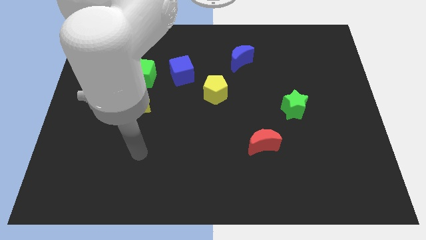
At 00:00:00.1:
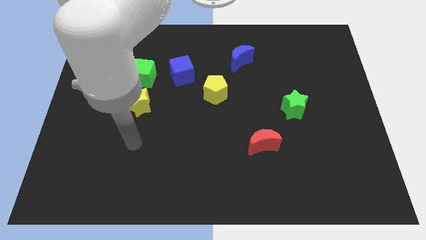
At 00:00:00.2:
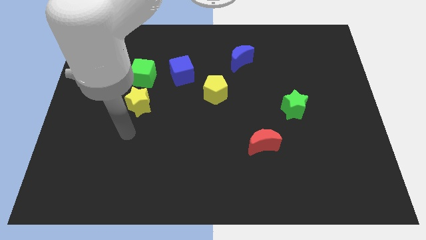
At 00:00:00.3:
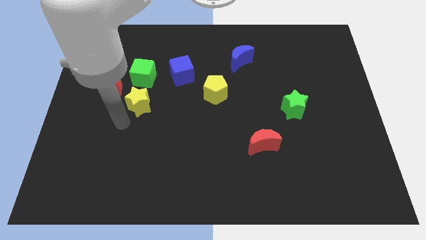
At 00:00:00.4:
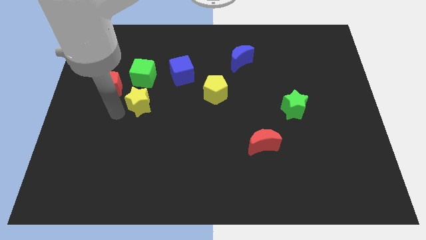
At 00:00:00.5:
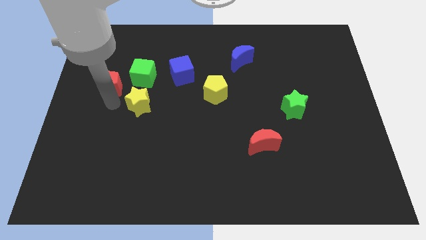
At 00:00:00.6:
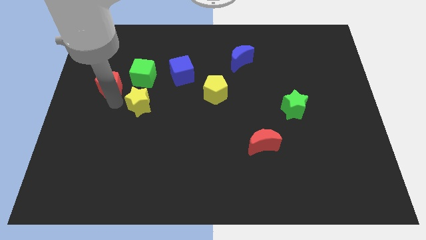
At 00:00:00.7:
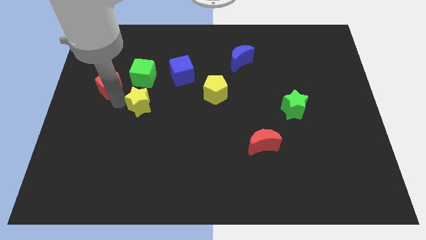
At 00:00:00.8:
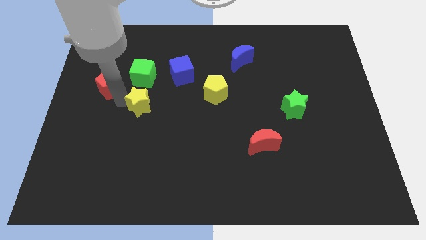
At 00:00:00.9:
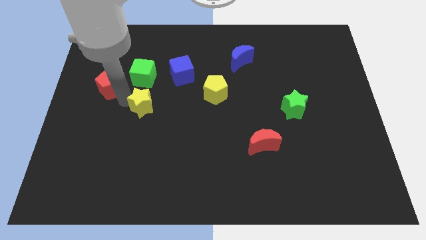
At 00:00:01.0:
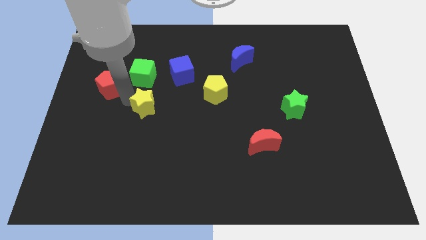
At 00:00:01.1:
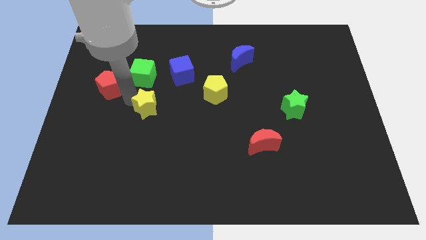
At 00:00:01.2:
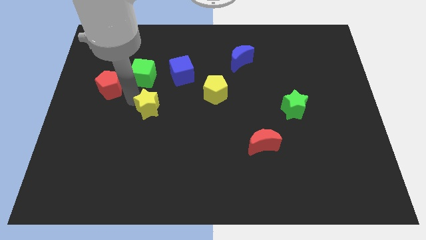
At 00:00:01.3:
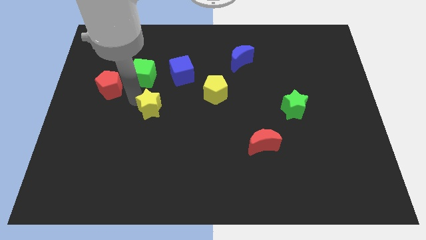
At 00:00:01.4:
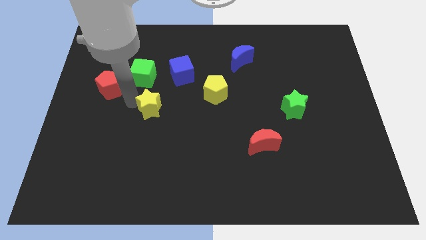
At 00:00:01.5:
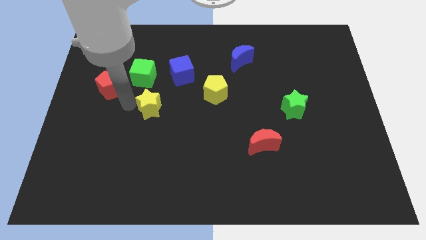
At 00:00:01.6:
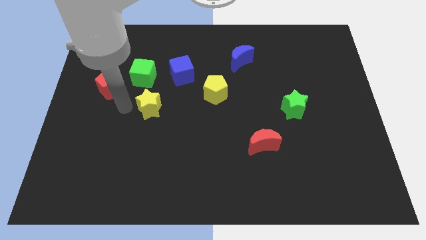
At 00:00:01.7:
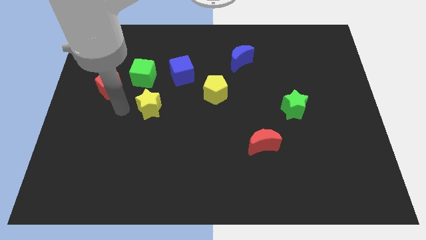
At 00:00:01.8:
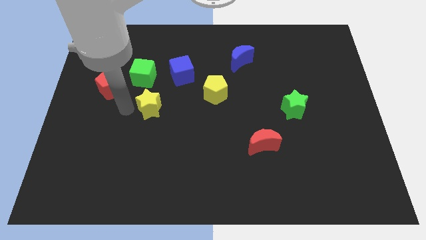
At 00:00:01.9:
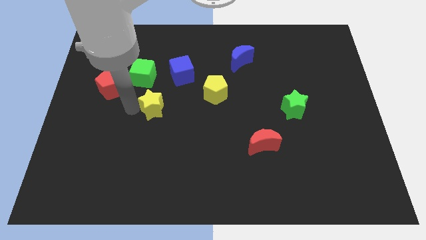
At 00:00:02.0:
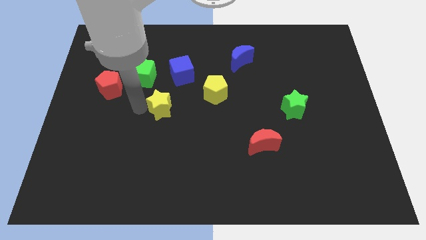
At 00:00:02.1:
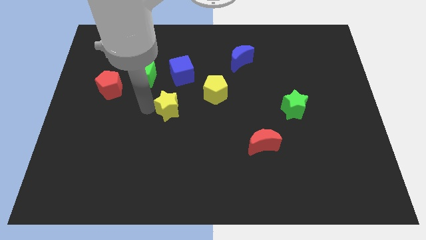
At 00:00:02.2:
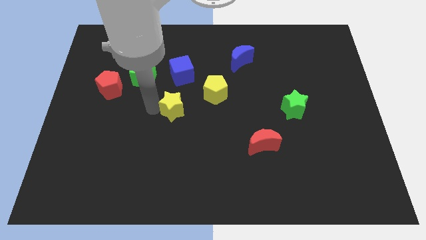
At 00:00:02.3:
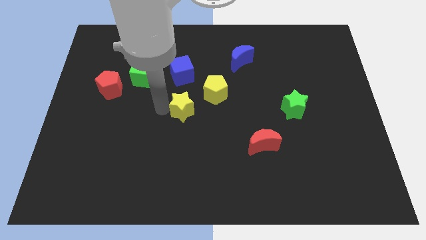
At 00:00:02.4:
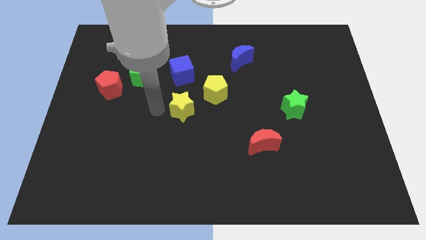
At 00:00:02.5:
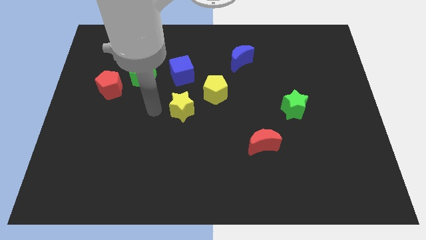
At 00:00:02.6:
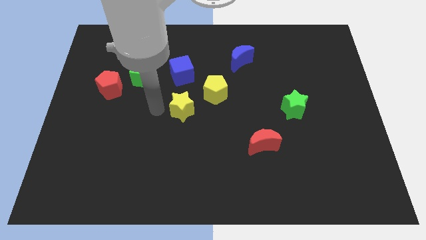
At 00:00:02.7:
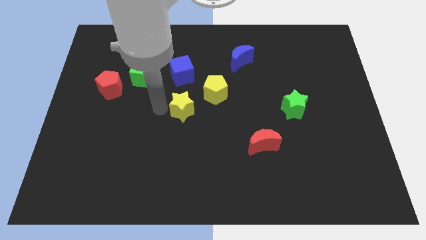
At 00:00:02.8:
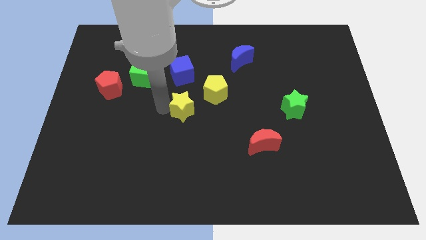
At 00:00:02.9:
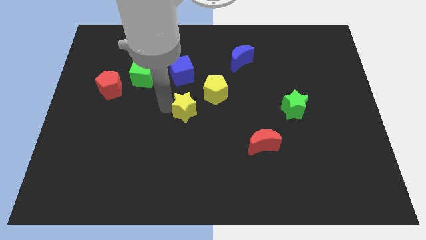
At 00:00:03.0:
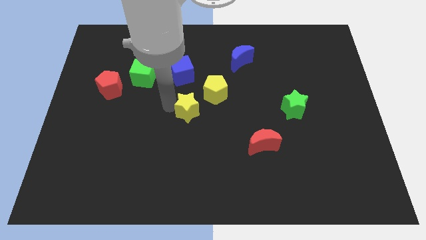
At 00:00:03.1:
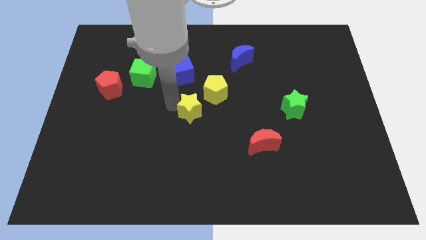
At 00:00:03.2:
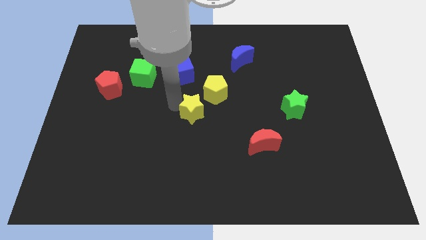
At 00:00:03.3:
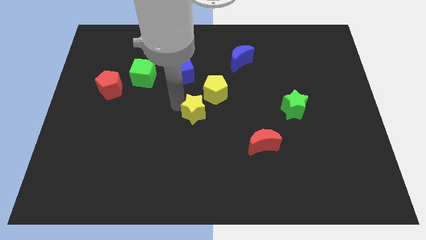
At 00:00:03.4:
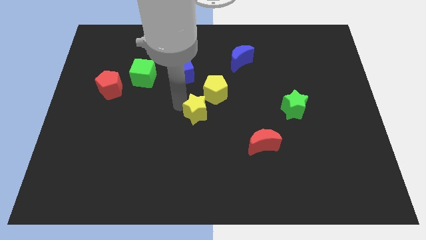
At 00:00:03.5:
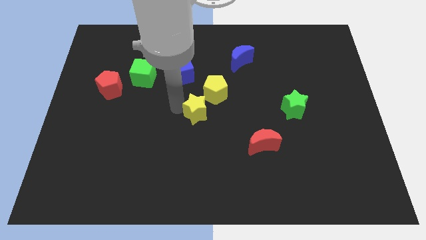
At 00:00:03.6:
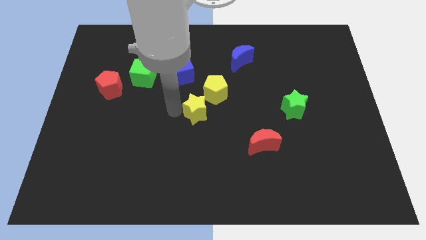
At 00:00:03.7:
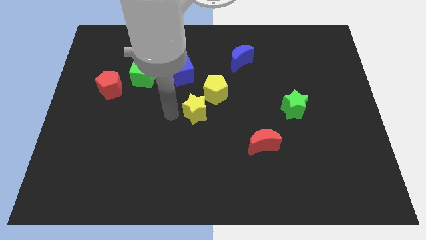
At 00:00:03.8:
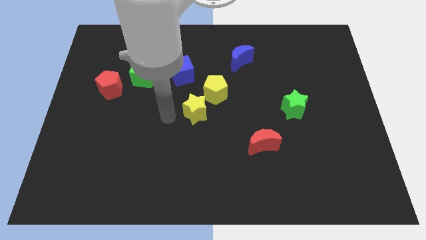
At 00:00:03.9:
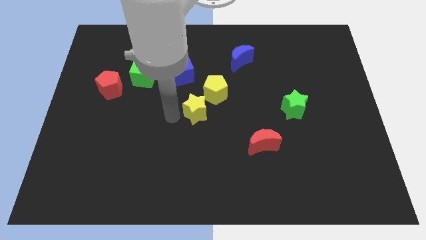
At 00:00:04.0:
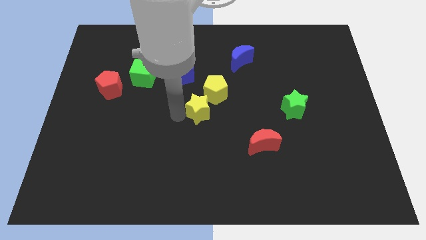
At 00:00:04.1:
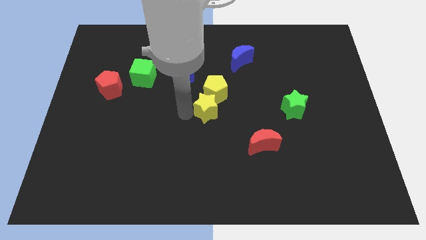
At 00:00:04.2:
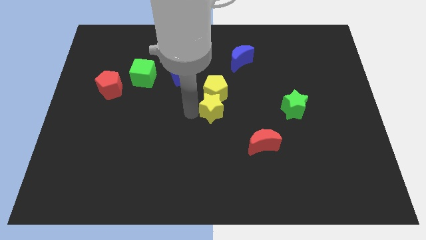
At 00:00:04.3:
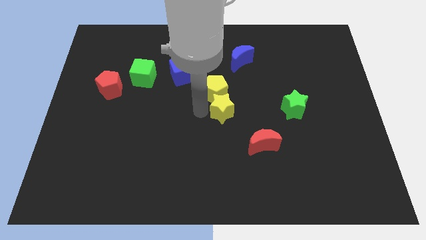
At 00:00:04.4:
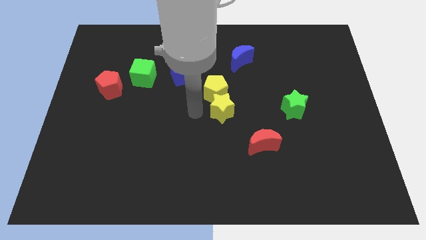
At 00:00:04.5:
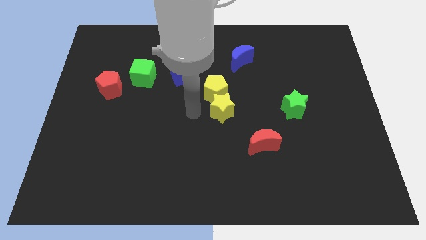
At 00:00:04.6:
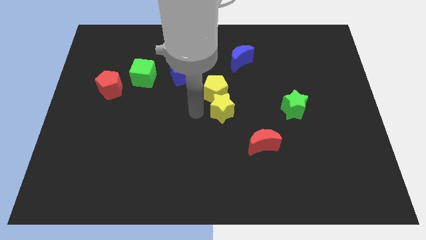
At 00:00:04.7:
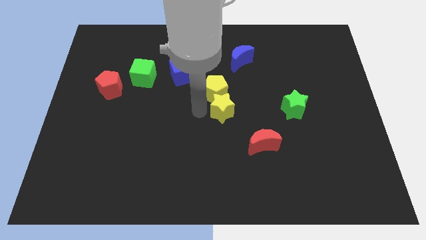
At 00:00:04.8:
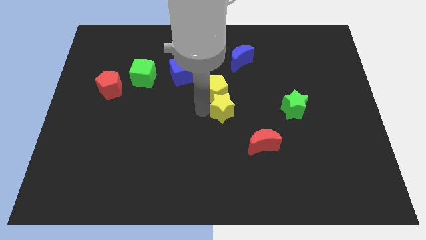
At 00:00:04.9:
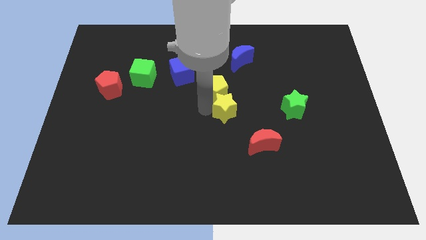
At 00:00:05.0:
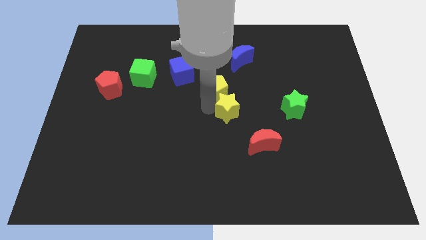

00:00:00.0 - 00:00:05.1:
slide the yellow star just left of the green star
